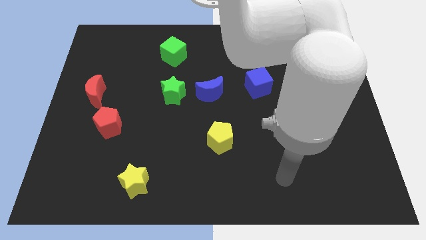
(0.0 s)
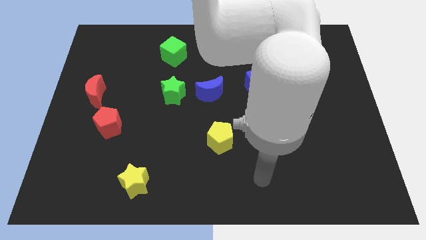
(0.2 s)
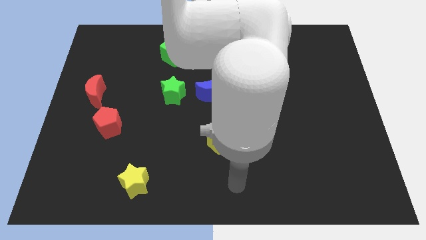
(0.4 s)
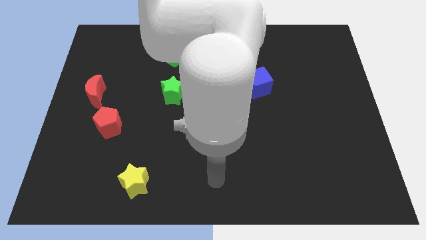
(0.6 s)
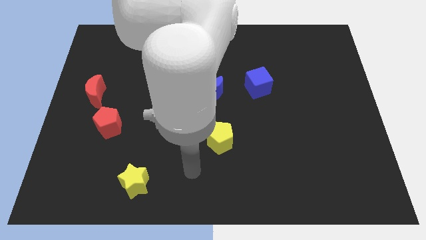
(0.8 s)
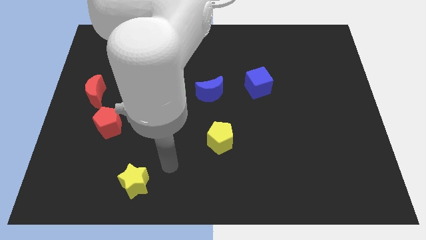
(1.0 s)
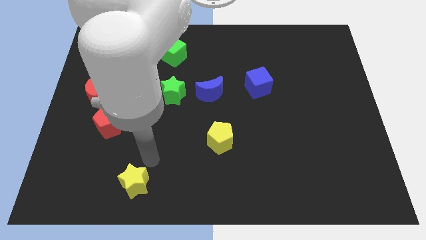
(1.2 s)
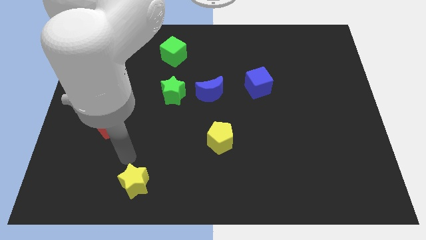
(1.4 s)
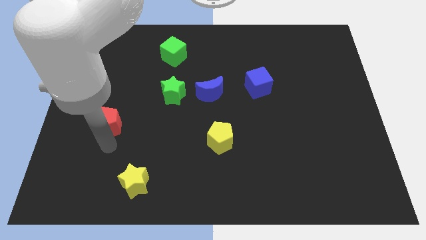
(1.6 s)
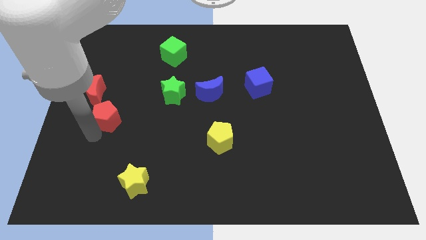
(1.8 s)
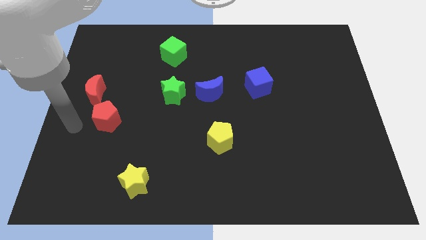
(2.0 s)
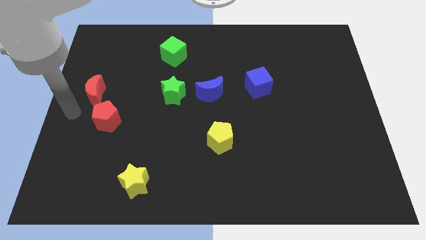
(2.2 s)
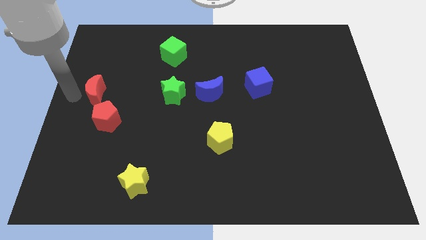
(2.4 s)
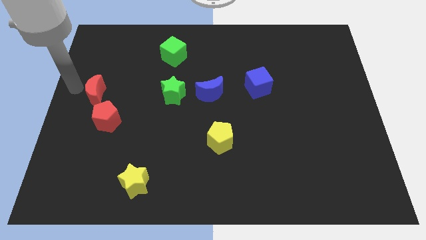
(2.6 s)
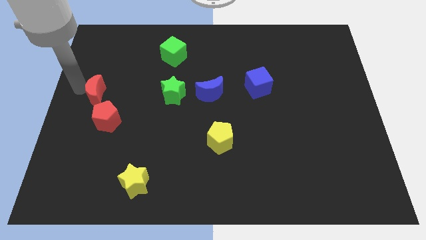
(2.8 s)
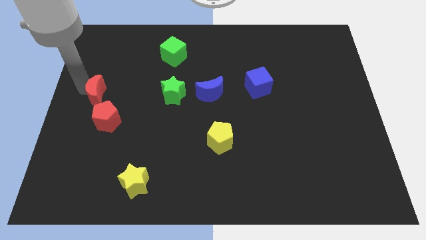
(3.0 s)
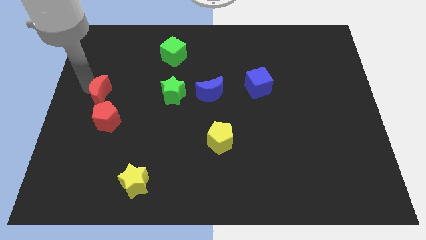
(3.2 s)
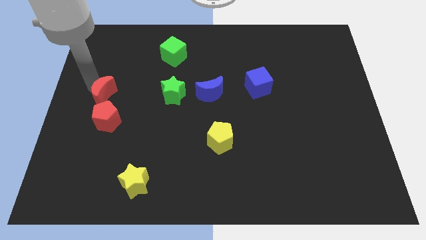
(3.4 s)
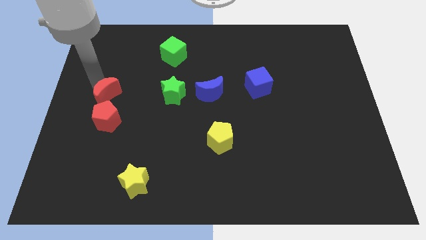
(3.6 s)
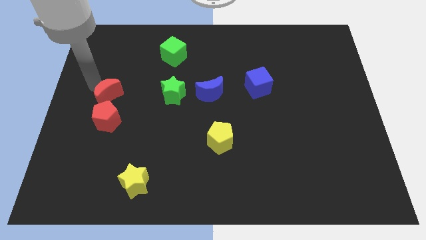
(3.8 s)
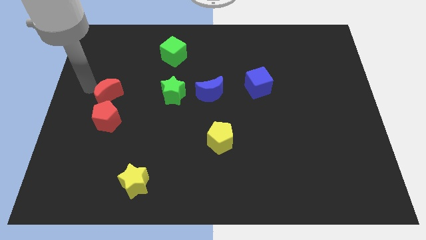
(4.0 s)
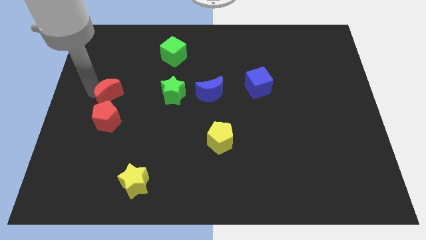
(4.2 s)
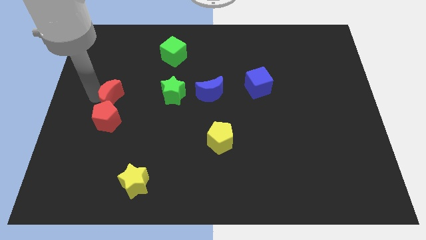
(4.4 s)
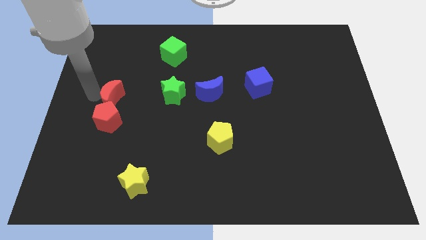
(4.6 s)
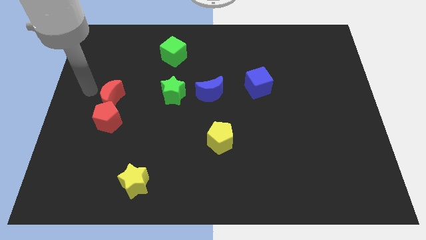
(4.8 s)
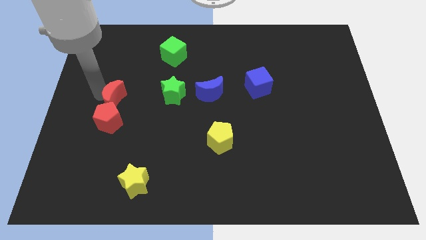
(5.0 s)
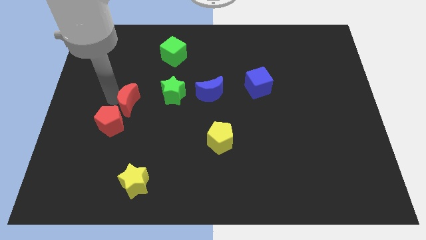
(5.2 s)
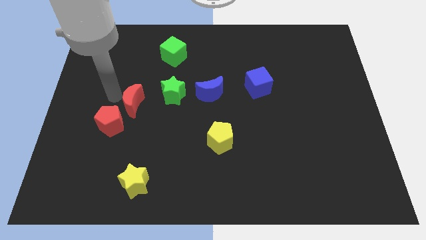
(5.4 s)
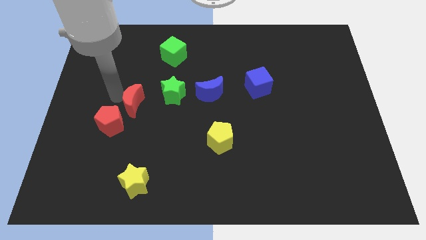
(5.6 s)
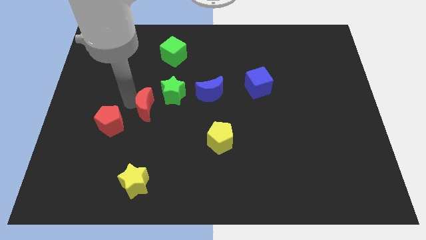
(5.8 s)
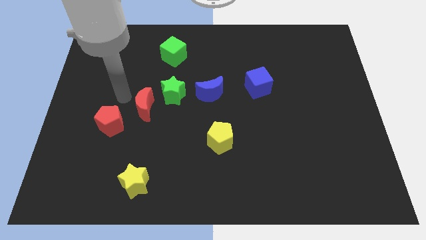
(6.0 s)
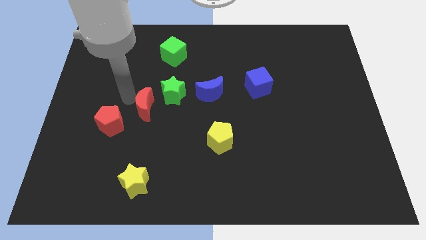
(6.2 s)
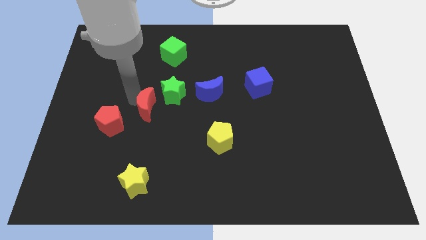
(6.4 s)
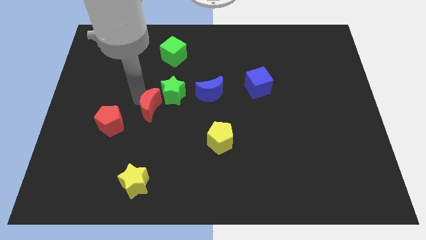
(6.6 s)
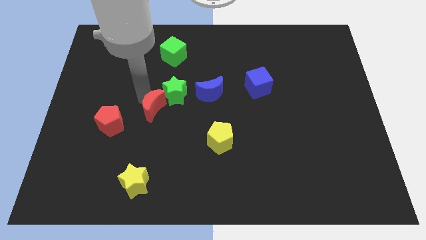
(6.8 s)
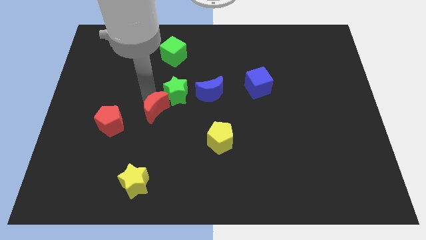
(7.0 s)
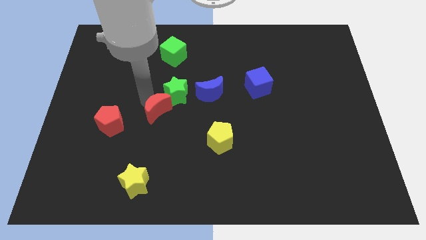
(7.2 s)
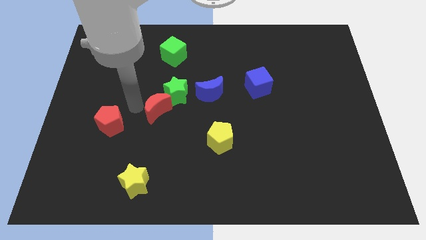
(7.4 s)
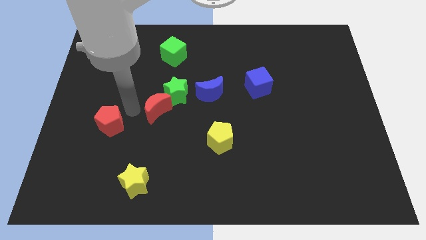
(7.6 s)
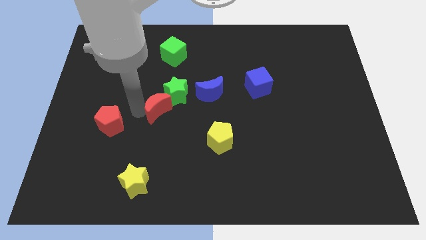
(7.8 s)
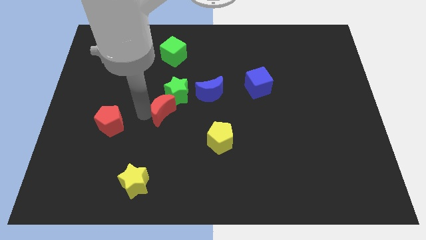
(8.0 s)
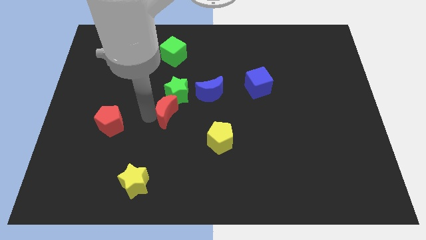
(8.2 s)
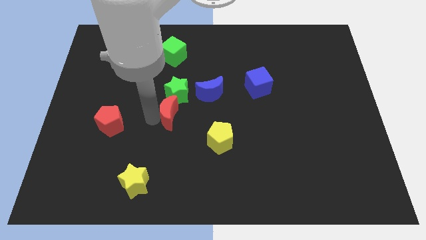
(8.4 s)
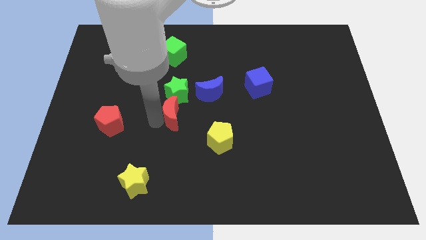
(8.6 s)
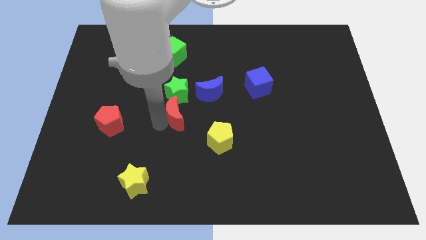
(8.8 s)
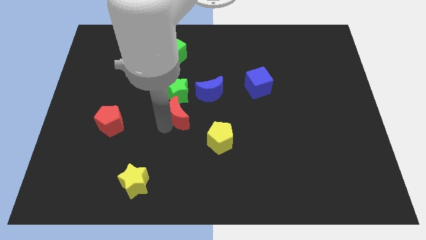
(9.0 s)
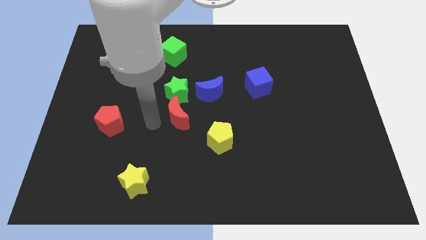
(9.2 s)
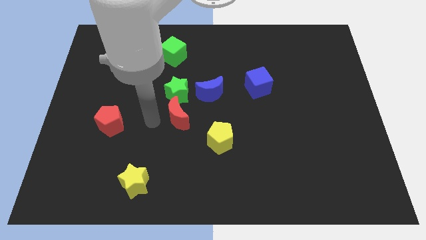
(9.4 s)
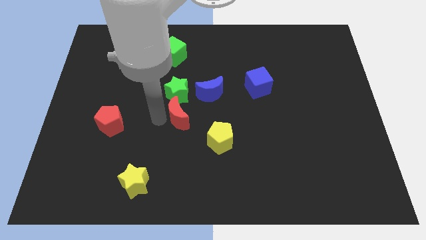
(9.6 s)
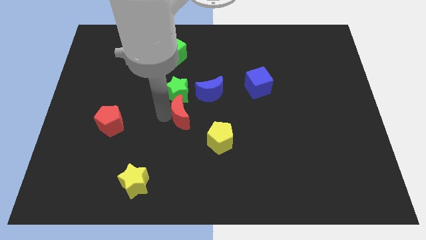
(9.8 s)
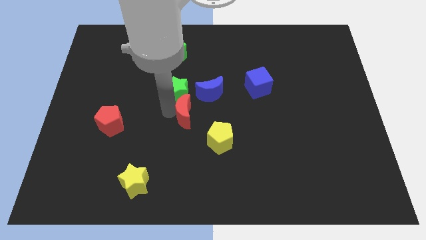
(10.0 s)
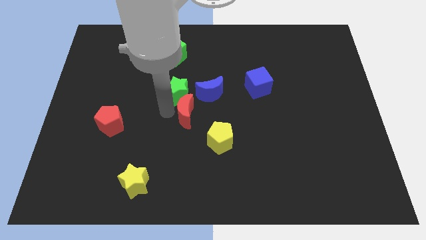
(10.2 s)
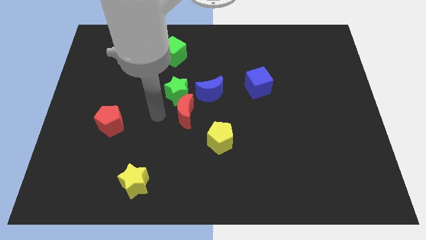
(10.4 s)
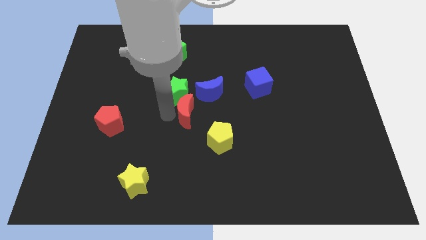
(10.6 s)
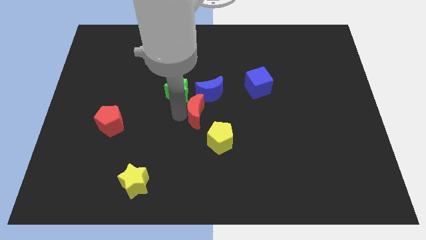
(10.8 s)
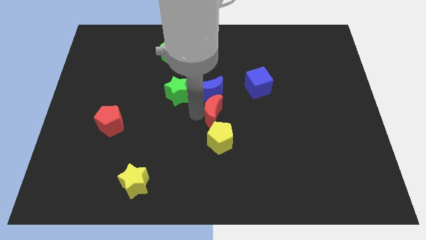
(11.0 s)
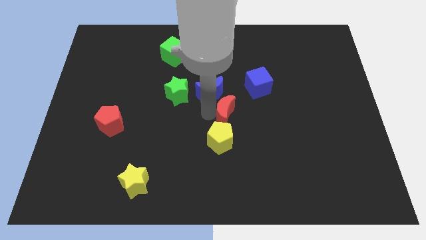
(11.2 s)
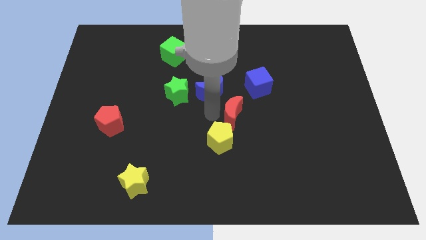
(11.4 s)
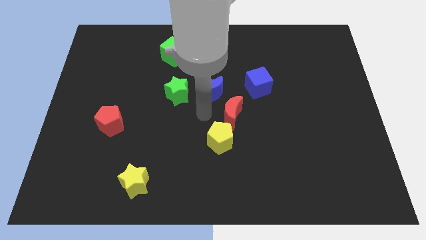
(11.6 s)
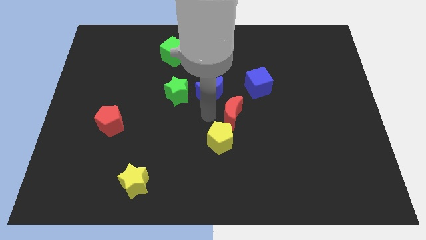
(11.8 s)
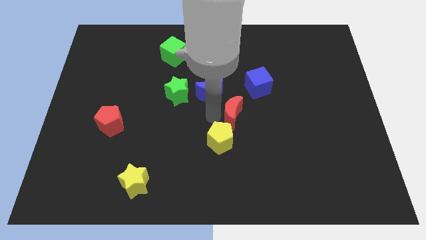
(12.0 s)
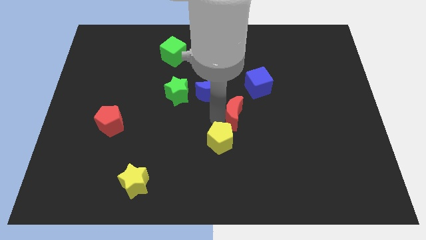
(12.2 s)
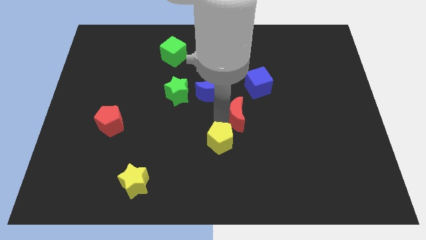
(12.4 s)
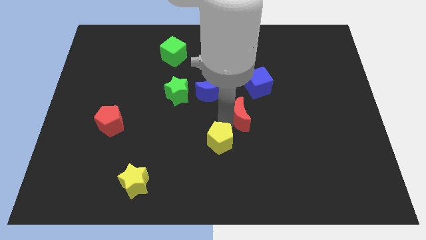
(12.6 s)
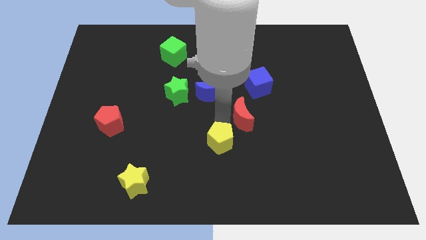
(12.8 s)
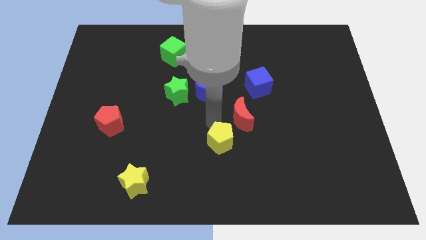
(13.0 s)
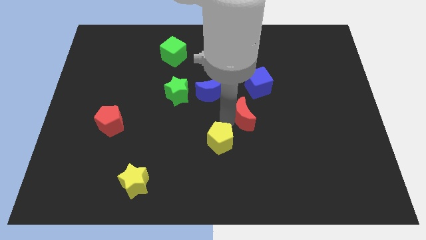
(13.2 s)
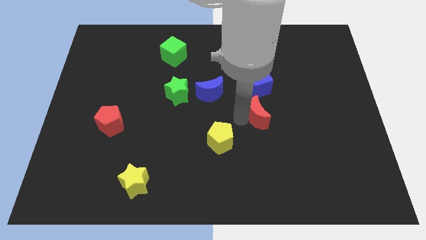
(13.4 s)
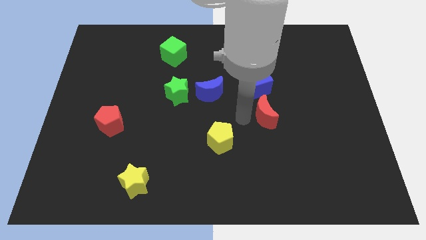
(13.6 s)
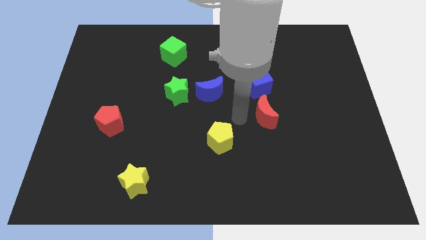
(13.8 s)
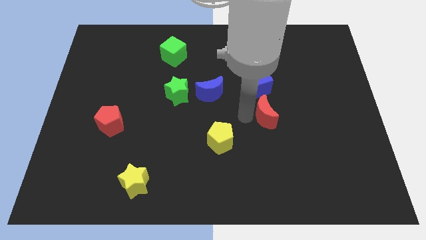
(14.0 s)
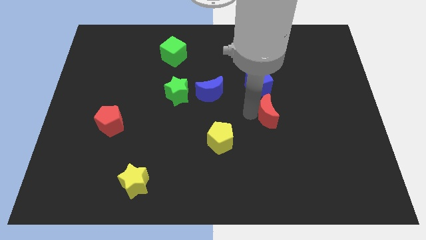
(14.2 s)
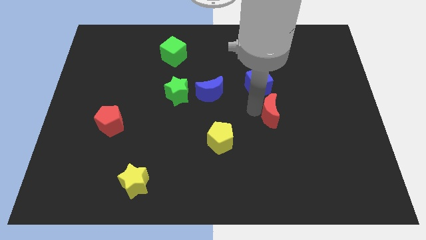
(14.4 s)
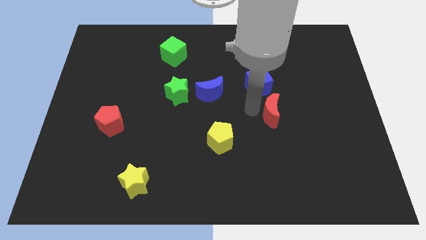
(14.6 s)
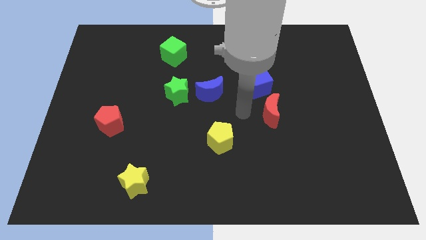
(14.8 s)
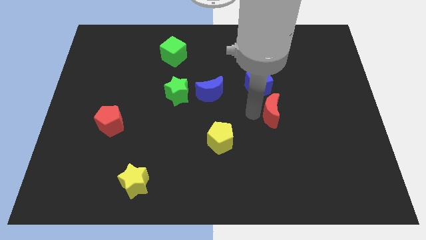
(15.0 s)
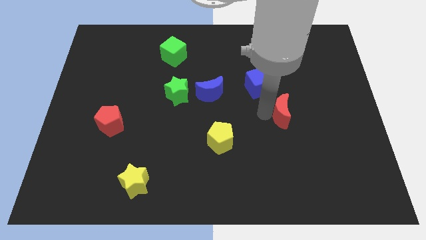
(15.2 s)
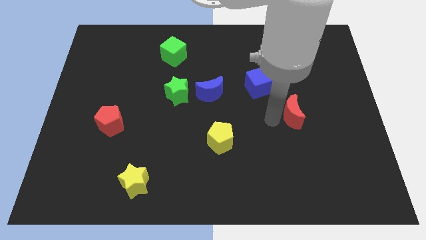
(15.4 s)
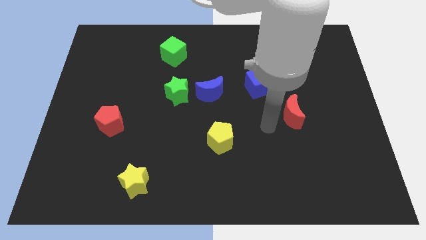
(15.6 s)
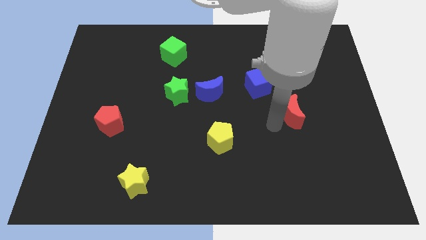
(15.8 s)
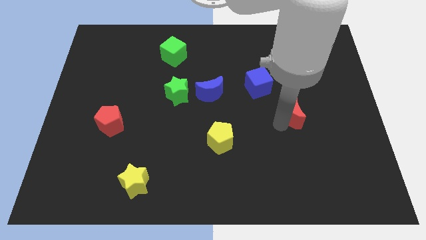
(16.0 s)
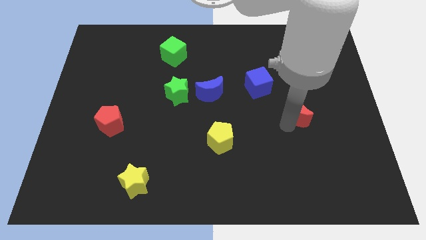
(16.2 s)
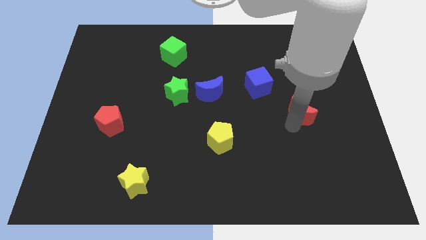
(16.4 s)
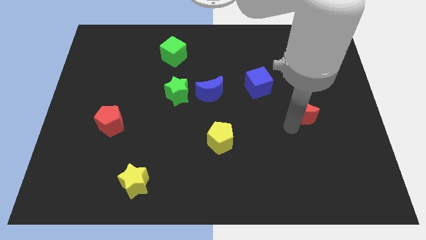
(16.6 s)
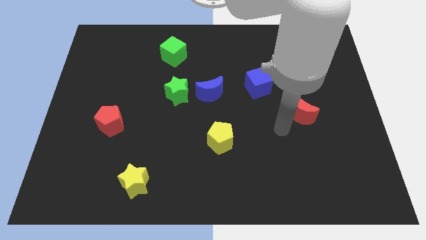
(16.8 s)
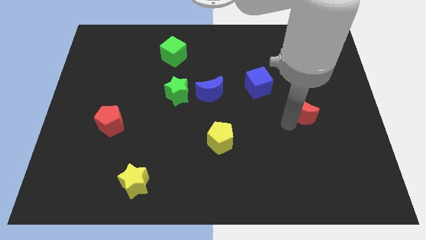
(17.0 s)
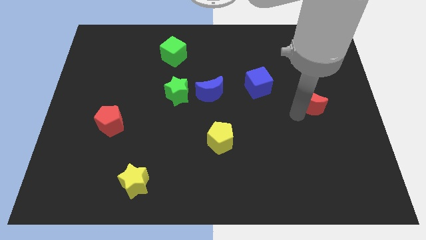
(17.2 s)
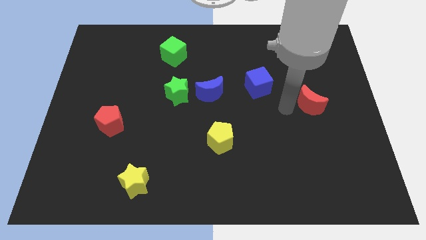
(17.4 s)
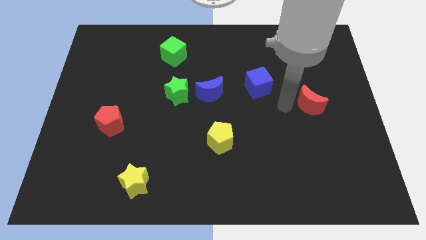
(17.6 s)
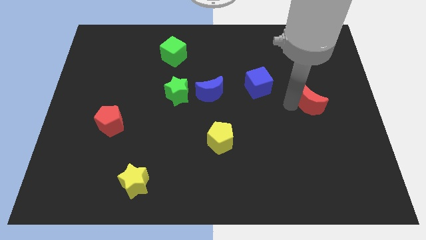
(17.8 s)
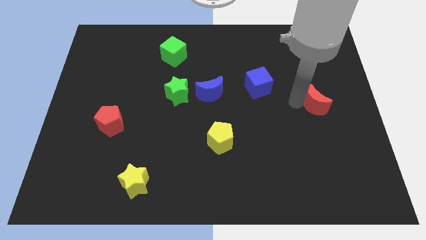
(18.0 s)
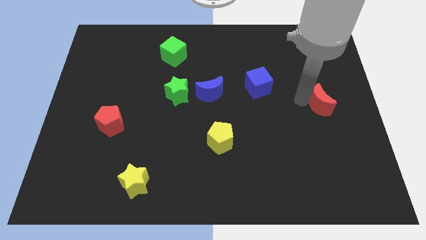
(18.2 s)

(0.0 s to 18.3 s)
put the red moon to the right side
